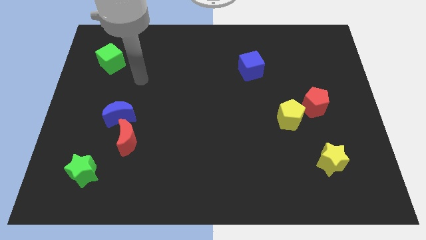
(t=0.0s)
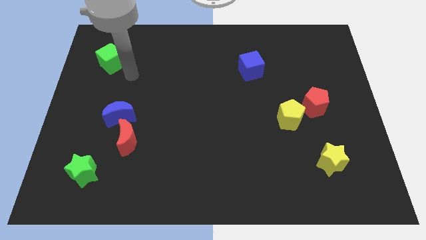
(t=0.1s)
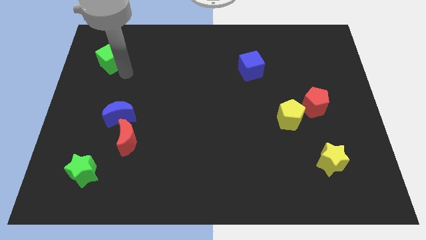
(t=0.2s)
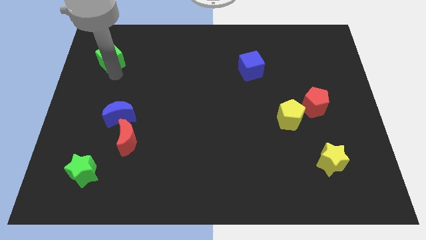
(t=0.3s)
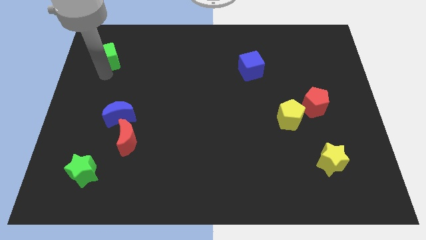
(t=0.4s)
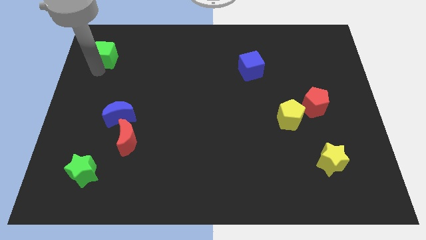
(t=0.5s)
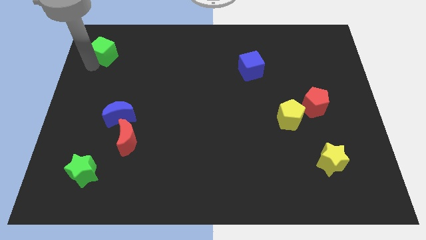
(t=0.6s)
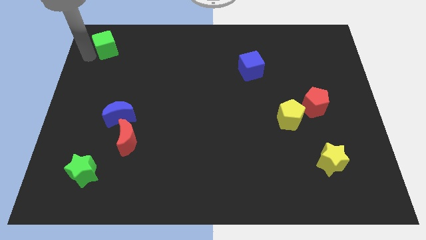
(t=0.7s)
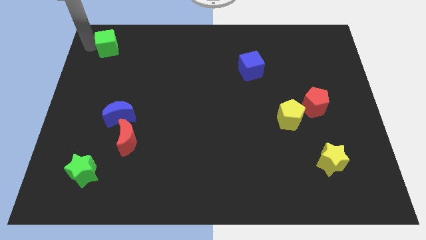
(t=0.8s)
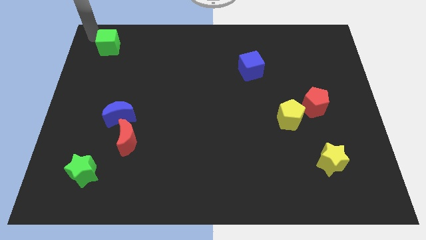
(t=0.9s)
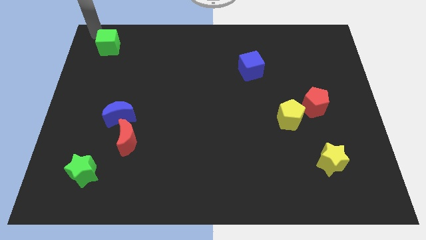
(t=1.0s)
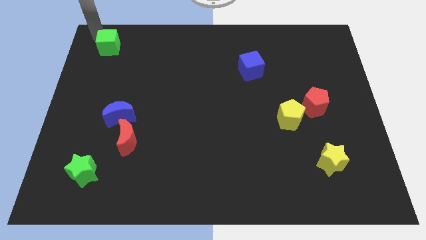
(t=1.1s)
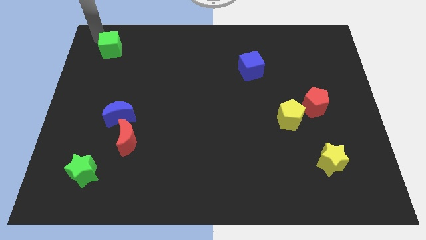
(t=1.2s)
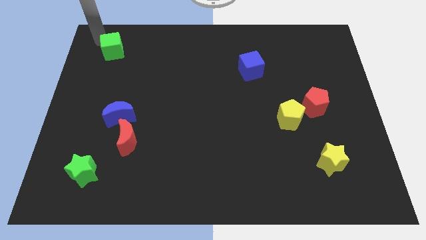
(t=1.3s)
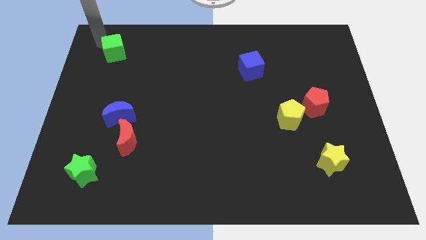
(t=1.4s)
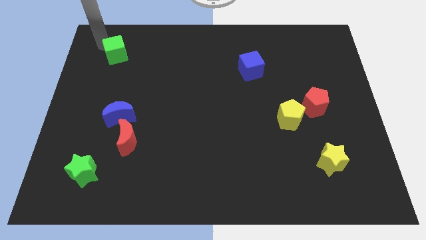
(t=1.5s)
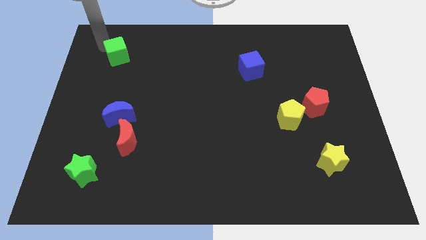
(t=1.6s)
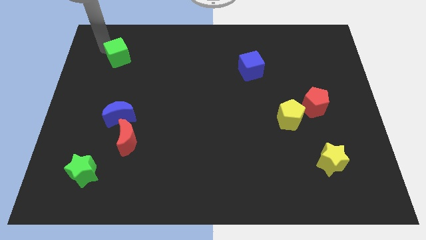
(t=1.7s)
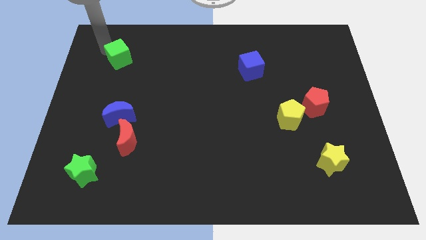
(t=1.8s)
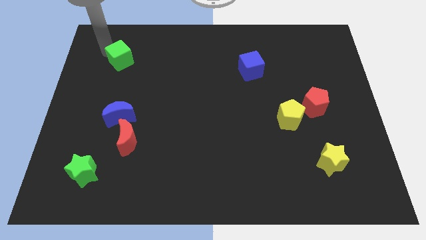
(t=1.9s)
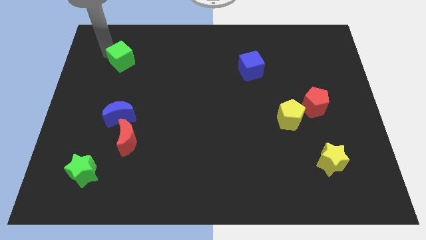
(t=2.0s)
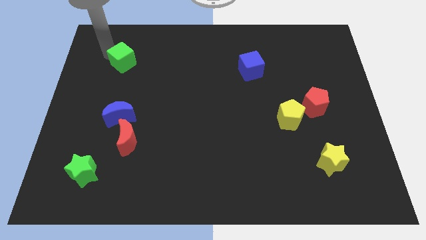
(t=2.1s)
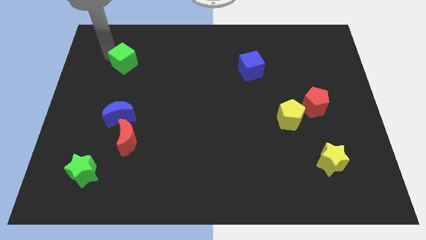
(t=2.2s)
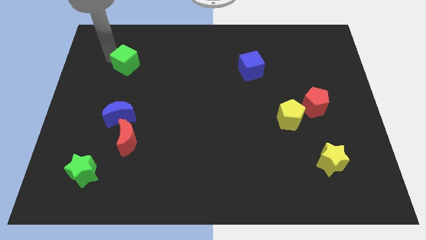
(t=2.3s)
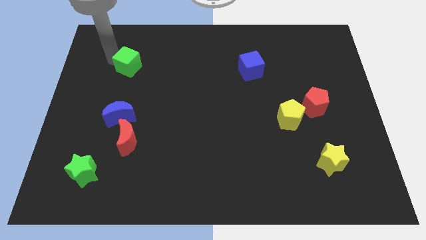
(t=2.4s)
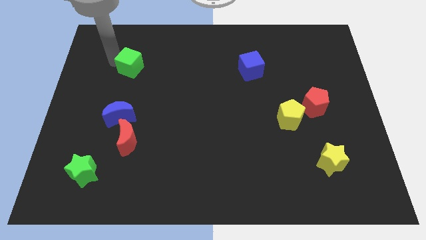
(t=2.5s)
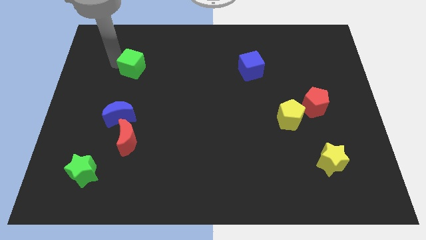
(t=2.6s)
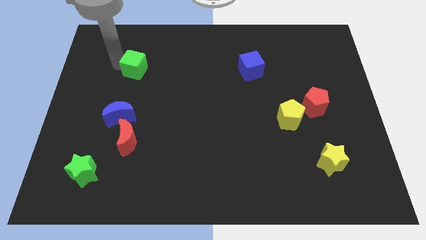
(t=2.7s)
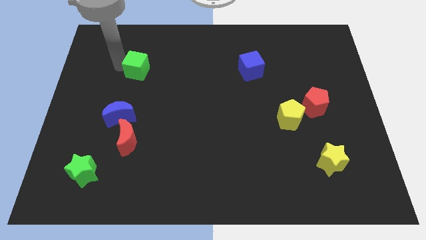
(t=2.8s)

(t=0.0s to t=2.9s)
slightly move the green cube right

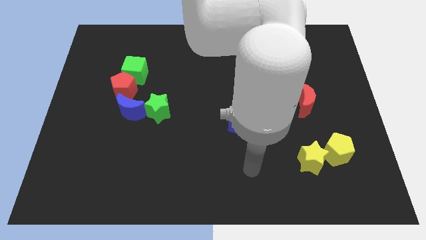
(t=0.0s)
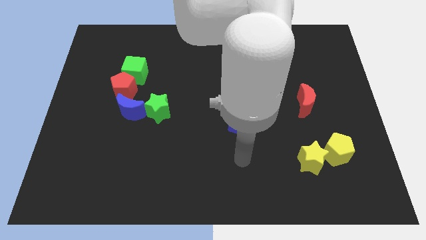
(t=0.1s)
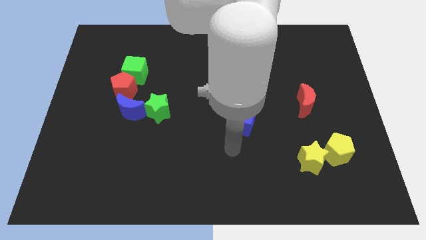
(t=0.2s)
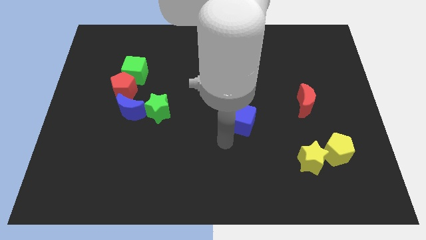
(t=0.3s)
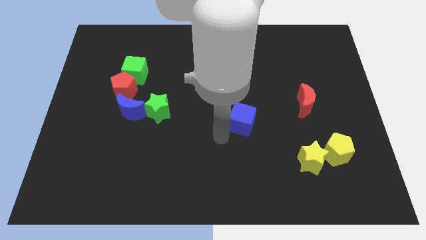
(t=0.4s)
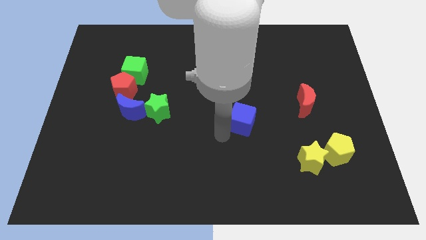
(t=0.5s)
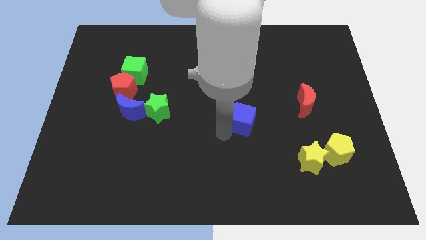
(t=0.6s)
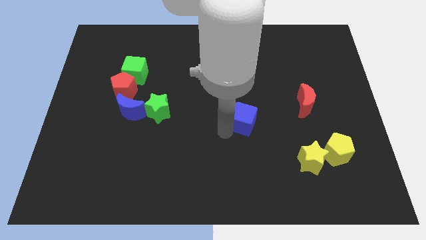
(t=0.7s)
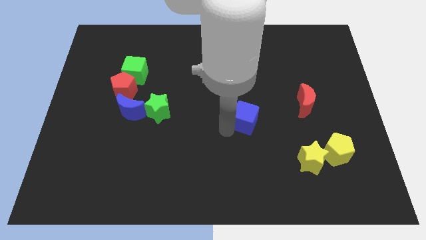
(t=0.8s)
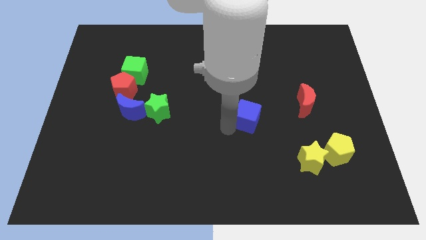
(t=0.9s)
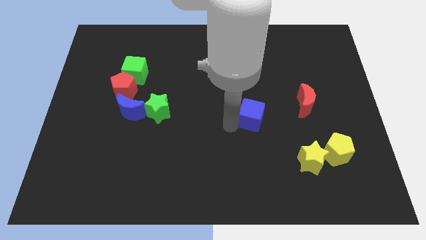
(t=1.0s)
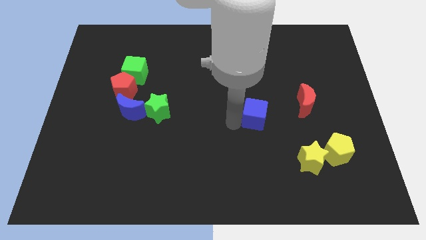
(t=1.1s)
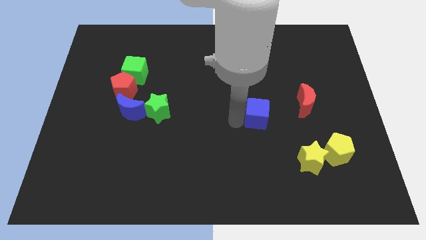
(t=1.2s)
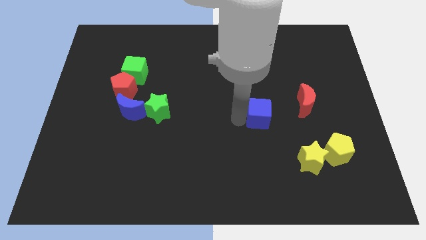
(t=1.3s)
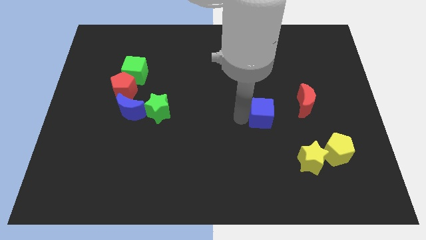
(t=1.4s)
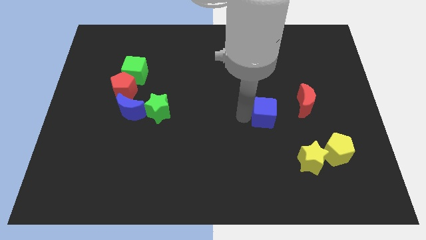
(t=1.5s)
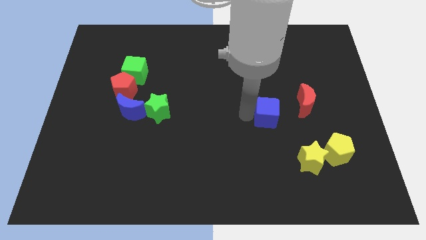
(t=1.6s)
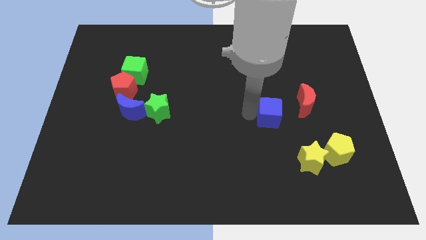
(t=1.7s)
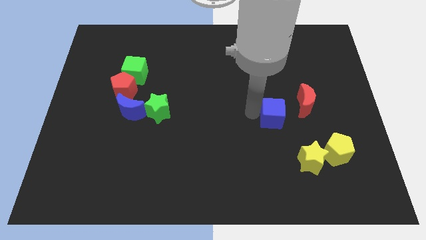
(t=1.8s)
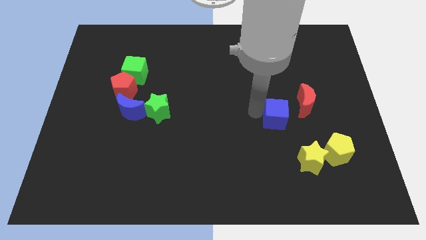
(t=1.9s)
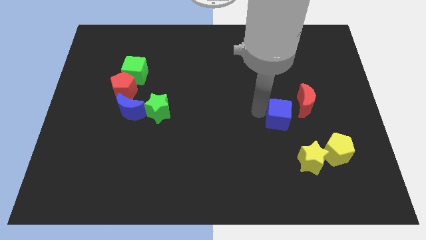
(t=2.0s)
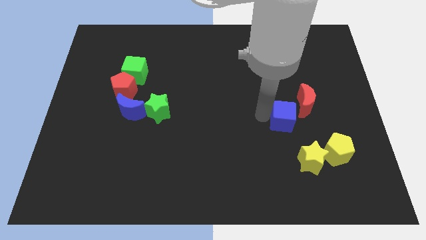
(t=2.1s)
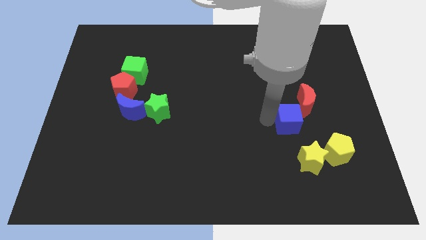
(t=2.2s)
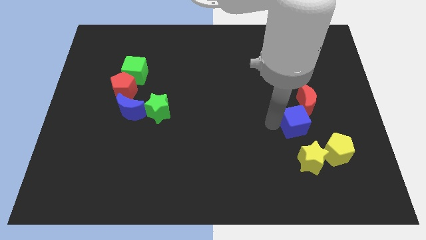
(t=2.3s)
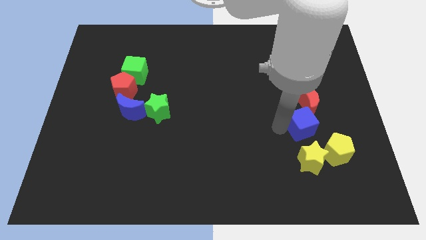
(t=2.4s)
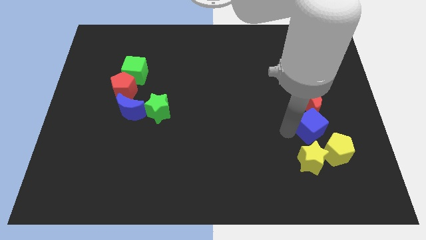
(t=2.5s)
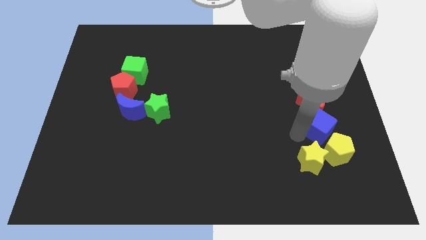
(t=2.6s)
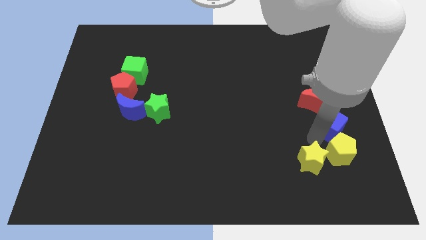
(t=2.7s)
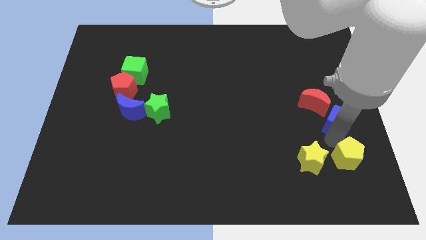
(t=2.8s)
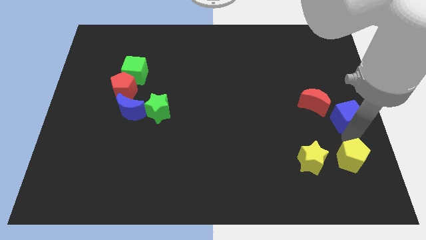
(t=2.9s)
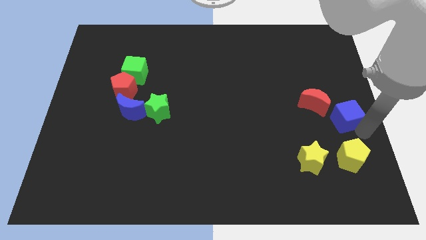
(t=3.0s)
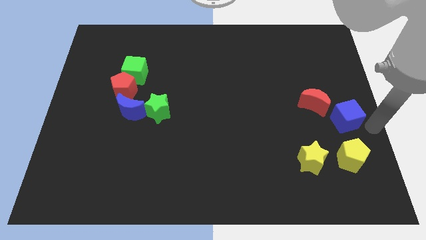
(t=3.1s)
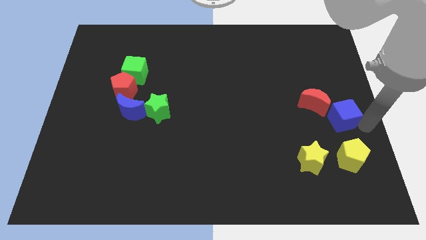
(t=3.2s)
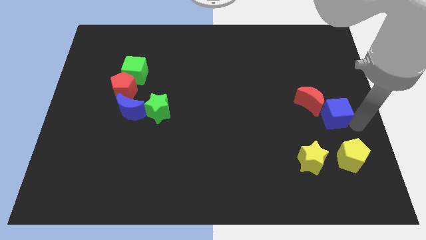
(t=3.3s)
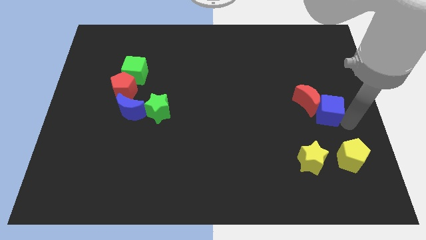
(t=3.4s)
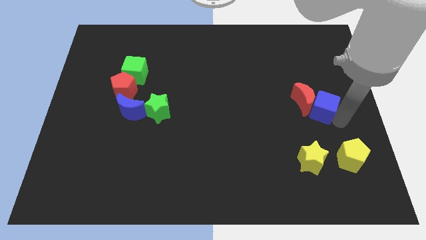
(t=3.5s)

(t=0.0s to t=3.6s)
move the blue cube upwards and right diagonally a bit

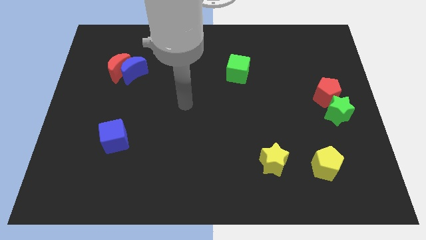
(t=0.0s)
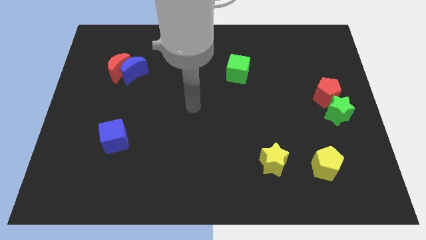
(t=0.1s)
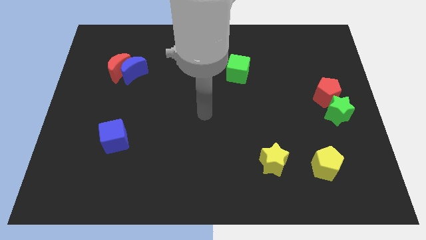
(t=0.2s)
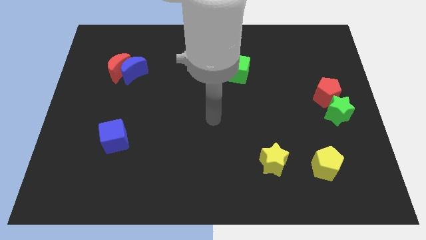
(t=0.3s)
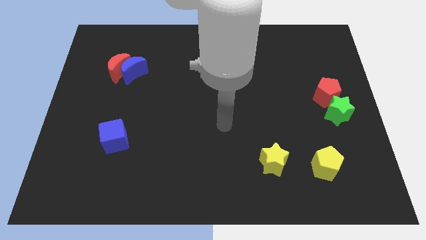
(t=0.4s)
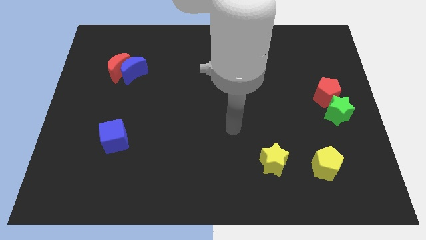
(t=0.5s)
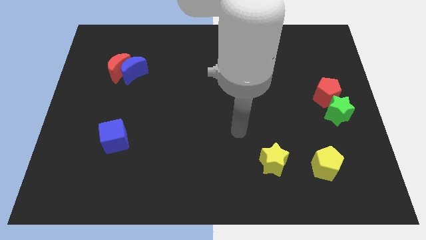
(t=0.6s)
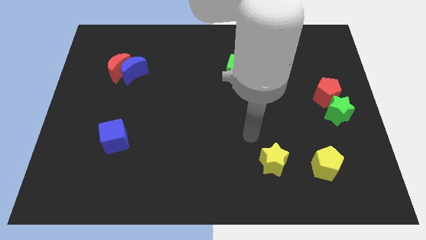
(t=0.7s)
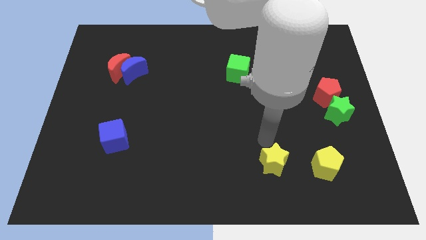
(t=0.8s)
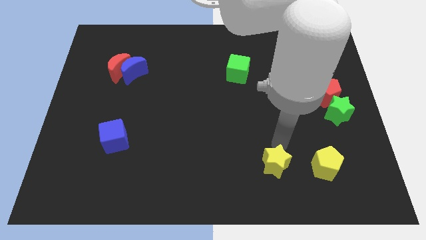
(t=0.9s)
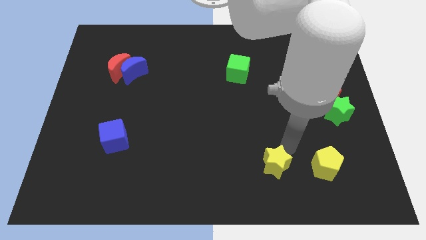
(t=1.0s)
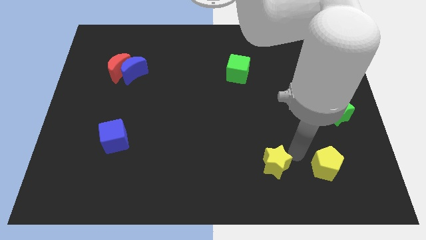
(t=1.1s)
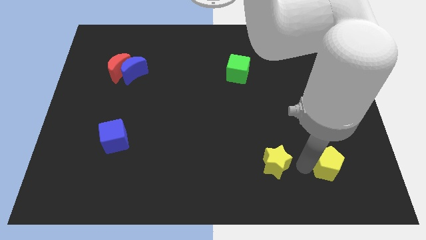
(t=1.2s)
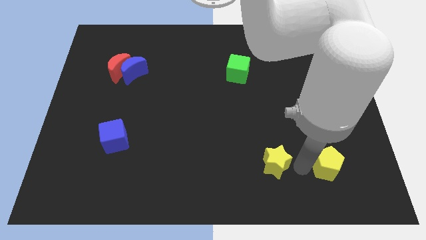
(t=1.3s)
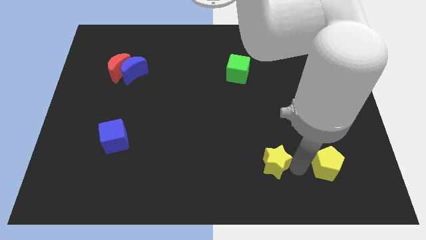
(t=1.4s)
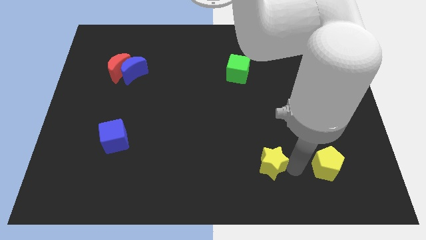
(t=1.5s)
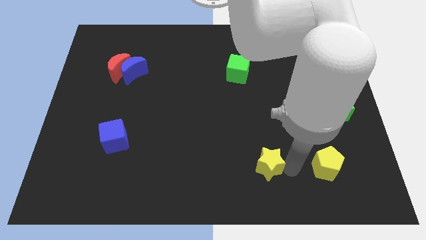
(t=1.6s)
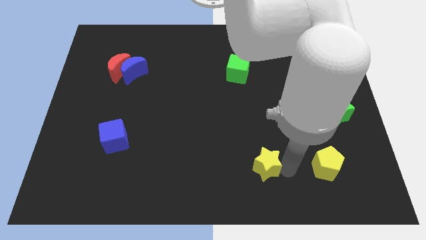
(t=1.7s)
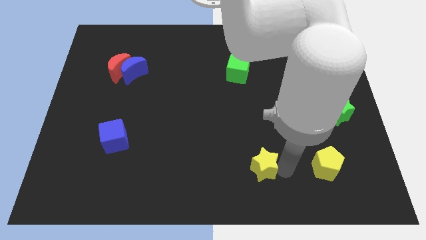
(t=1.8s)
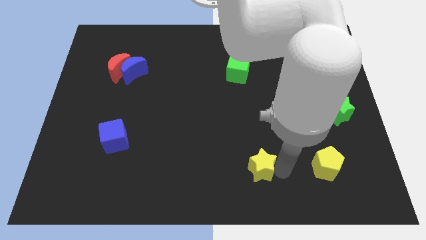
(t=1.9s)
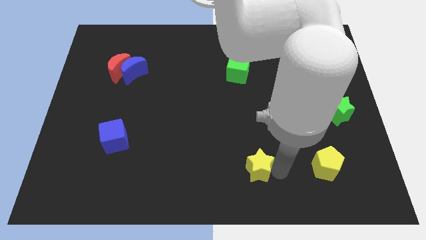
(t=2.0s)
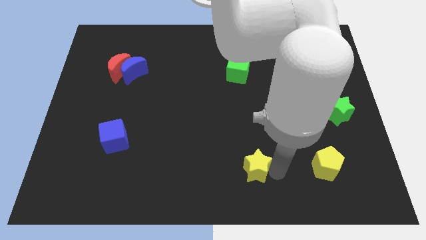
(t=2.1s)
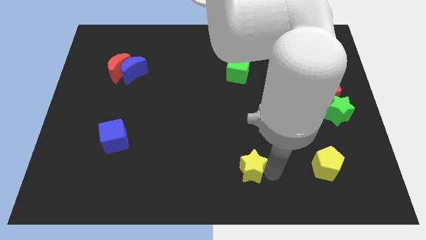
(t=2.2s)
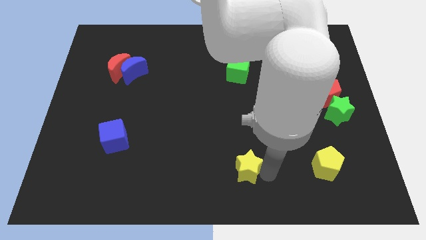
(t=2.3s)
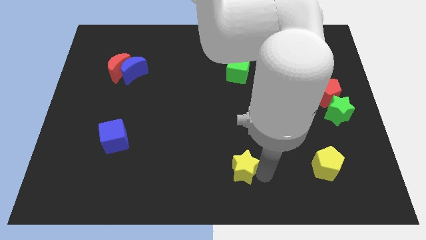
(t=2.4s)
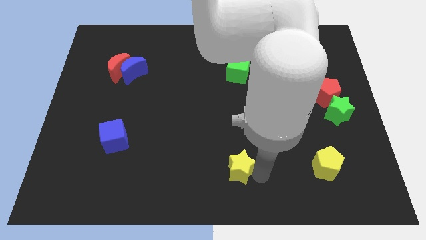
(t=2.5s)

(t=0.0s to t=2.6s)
push the yellow star to the left a little
